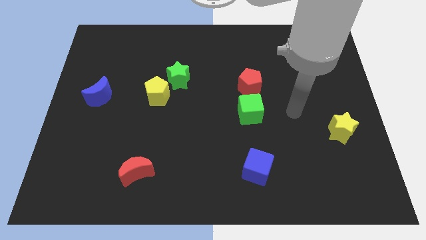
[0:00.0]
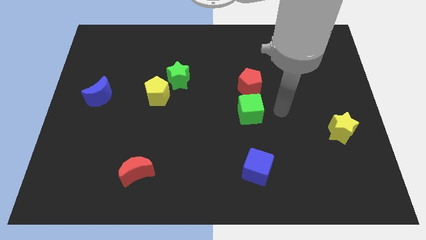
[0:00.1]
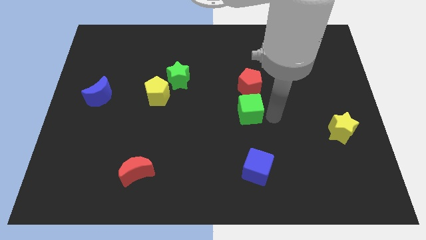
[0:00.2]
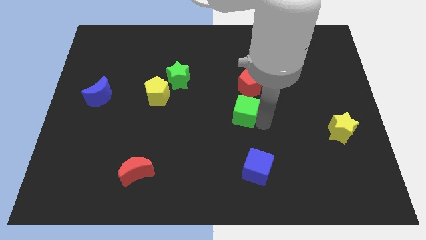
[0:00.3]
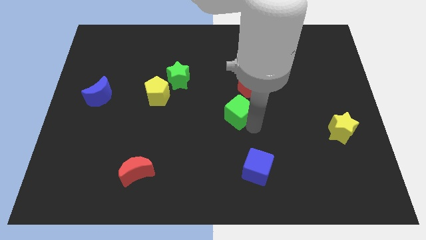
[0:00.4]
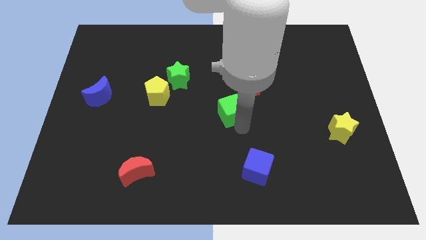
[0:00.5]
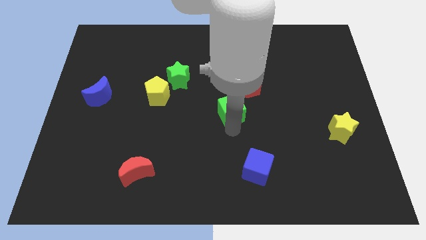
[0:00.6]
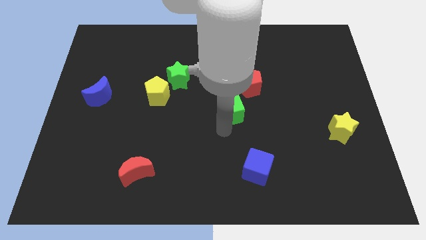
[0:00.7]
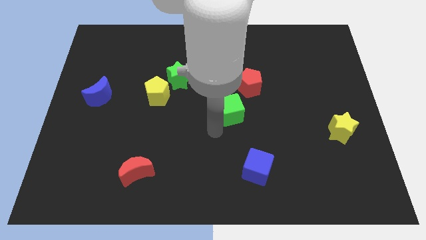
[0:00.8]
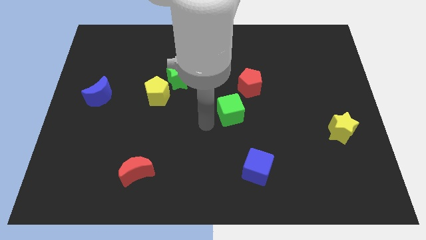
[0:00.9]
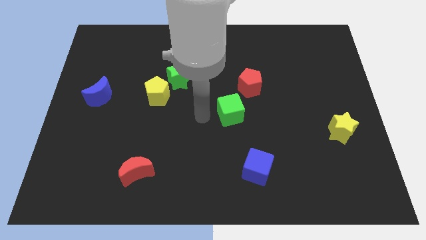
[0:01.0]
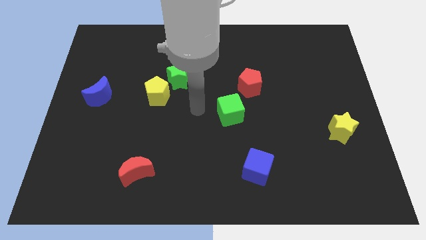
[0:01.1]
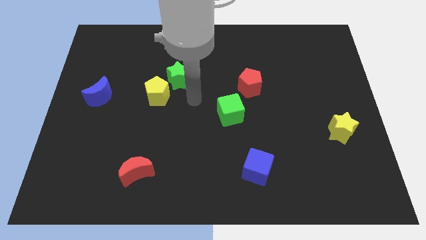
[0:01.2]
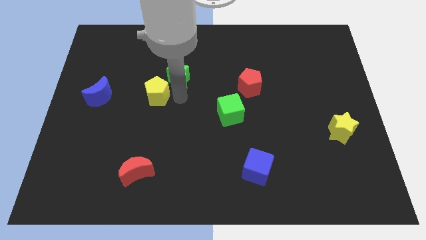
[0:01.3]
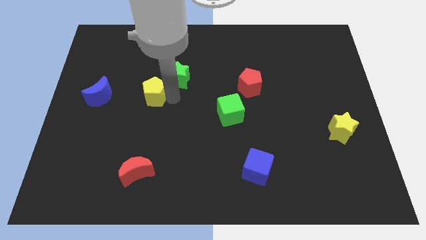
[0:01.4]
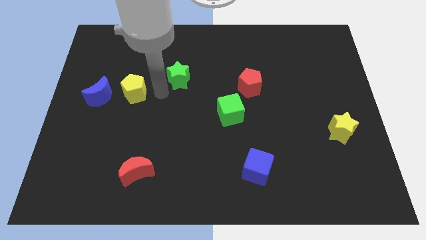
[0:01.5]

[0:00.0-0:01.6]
move the green star away from the yellow pentagon

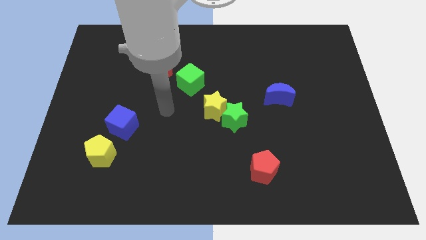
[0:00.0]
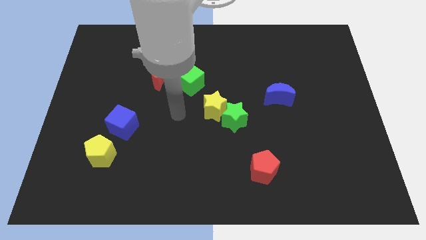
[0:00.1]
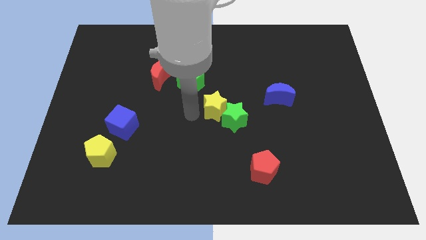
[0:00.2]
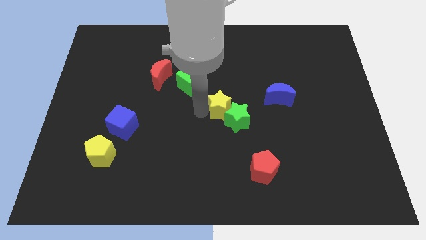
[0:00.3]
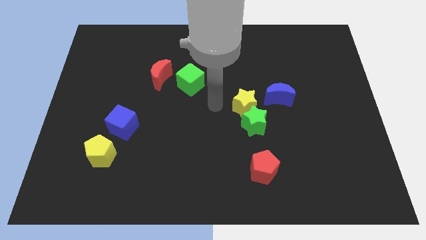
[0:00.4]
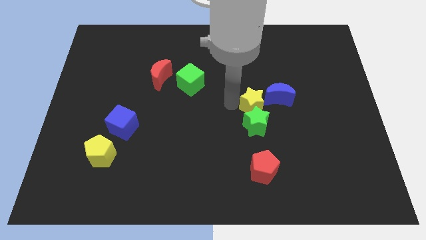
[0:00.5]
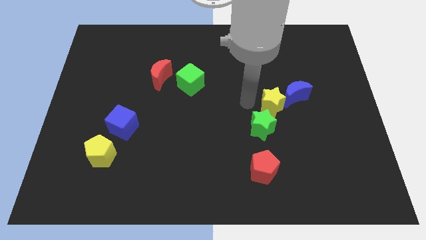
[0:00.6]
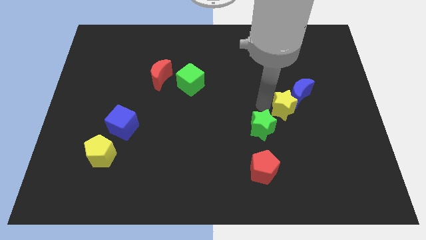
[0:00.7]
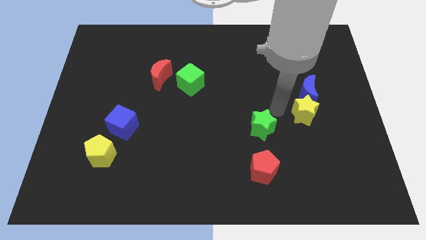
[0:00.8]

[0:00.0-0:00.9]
pull the green star apart from the yellow star

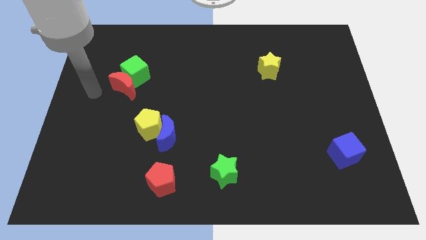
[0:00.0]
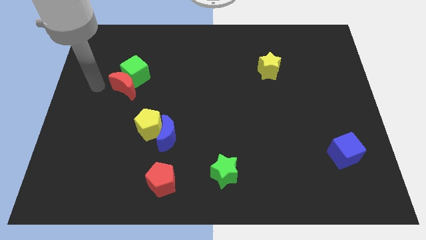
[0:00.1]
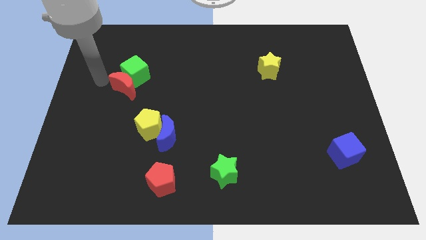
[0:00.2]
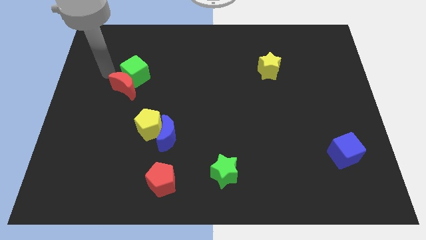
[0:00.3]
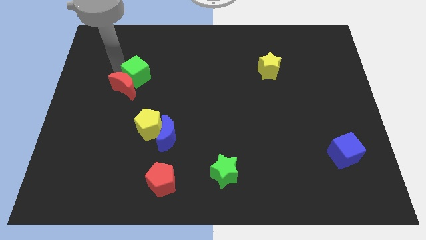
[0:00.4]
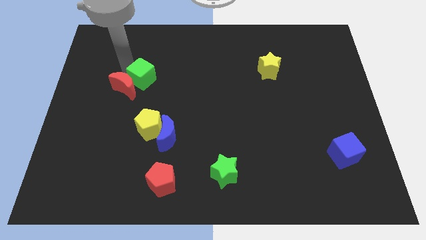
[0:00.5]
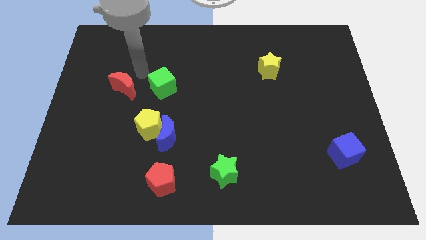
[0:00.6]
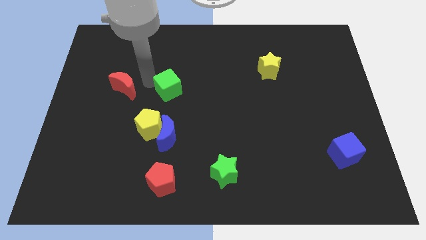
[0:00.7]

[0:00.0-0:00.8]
move the red moon away from the green cube

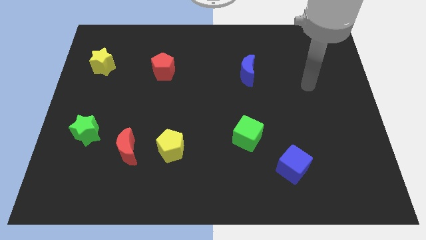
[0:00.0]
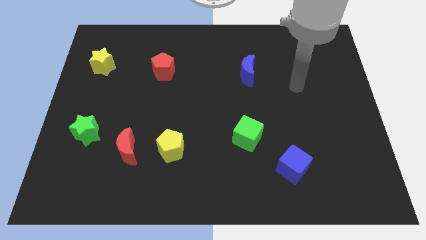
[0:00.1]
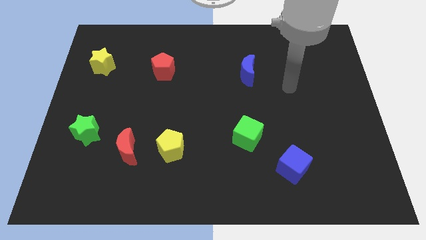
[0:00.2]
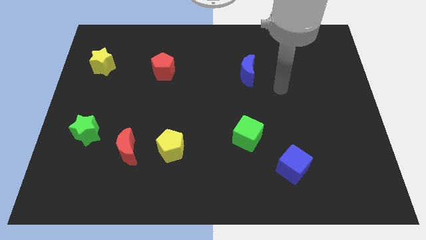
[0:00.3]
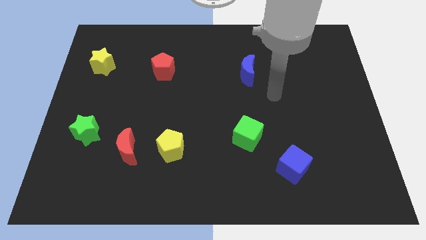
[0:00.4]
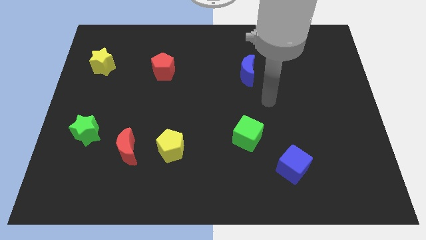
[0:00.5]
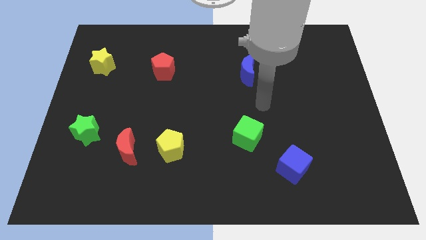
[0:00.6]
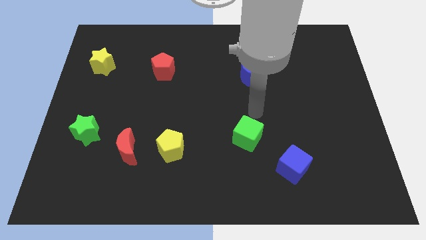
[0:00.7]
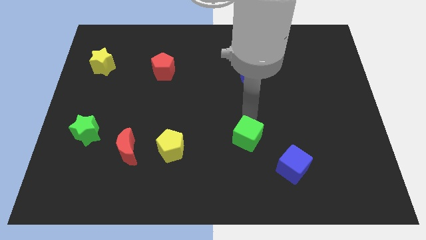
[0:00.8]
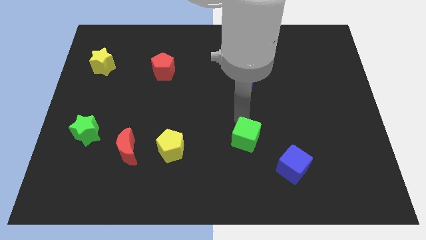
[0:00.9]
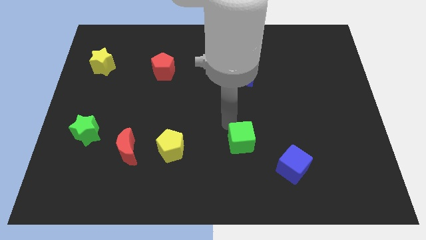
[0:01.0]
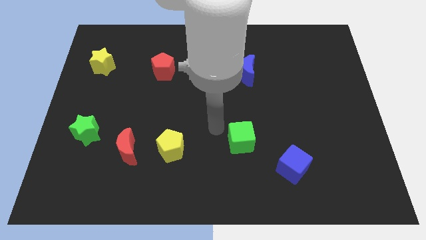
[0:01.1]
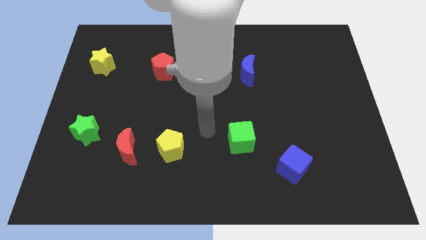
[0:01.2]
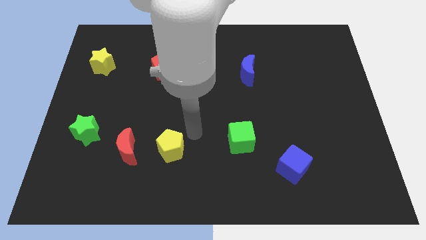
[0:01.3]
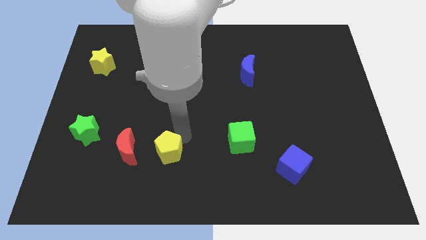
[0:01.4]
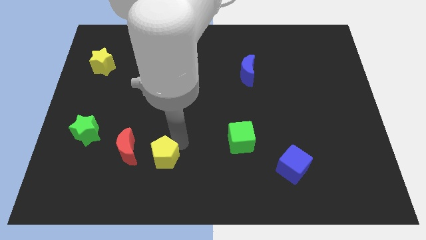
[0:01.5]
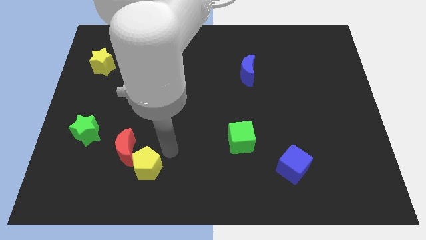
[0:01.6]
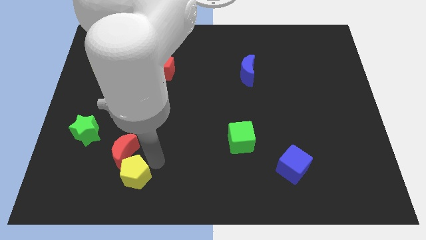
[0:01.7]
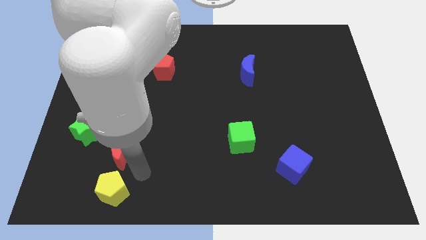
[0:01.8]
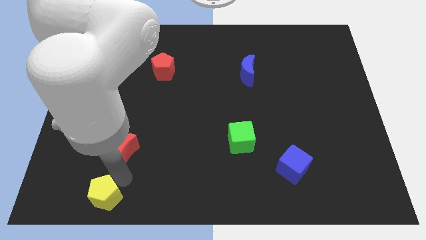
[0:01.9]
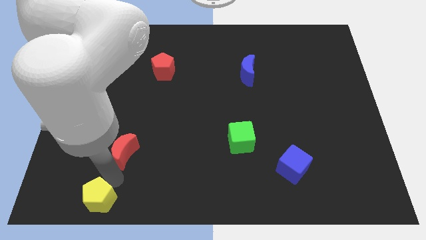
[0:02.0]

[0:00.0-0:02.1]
move the red moon away from the yellow pentagon

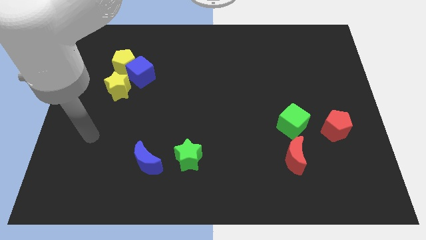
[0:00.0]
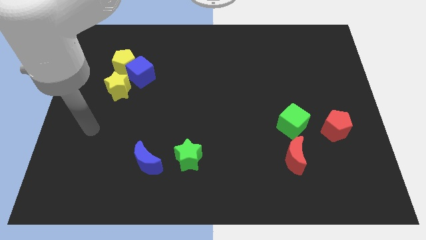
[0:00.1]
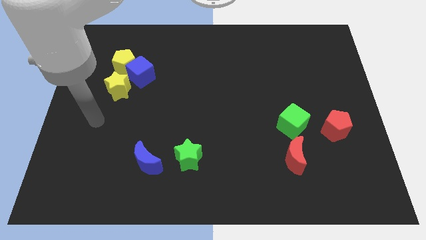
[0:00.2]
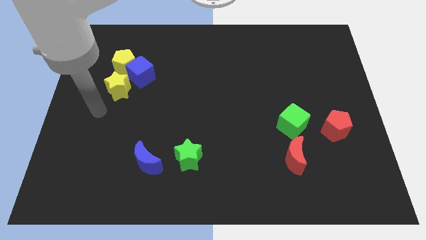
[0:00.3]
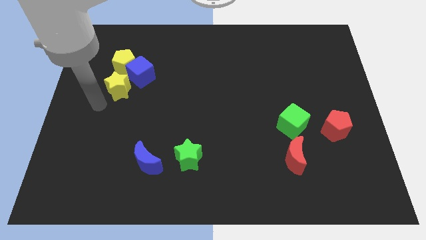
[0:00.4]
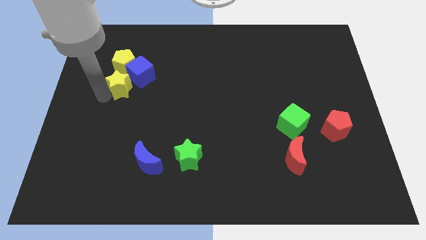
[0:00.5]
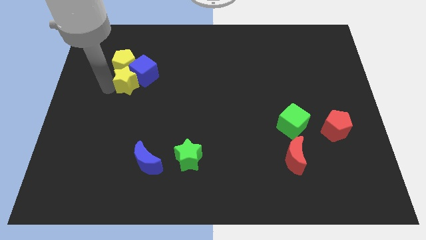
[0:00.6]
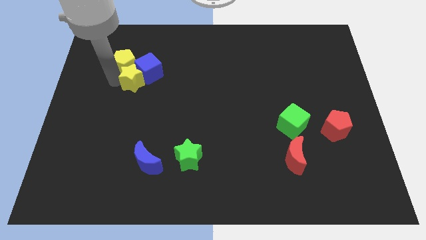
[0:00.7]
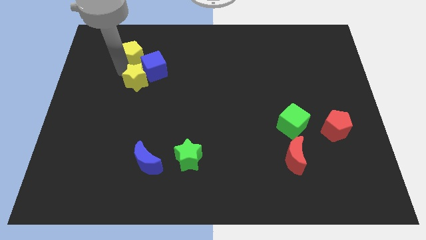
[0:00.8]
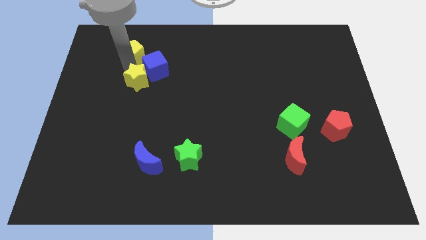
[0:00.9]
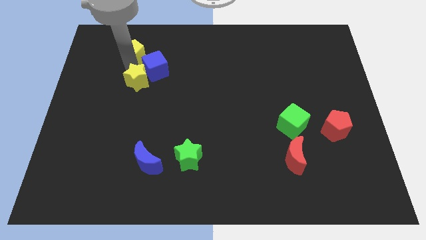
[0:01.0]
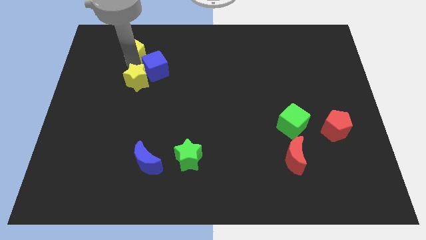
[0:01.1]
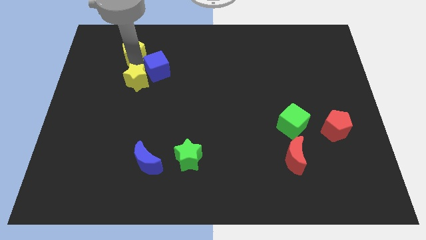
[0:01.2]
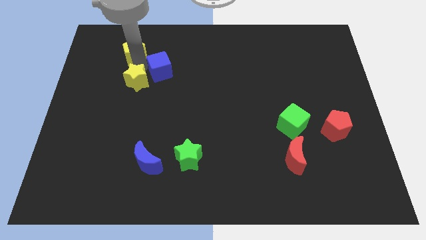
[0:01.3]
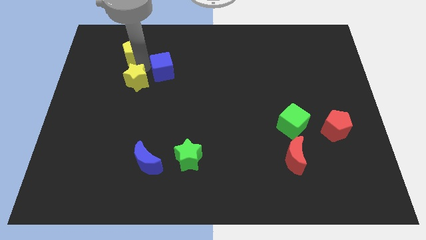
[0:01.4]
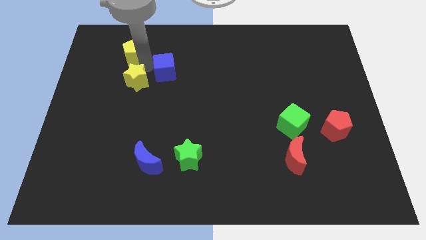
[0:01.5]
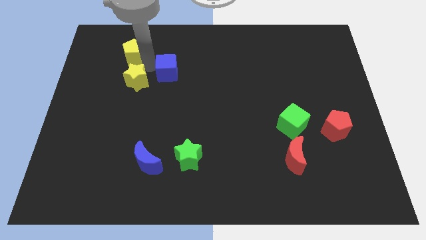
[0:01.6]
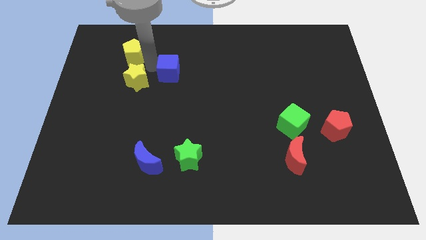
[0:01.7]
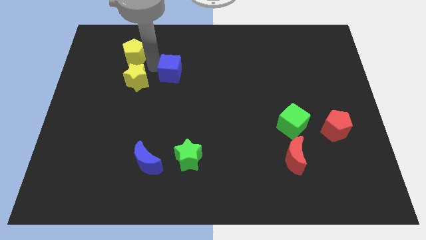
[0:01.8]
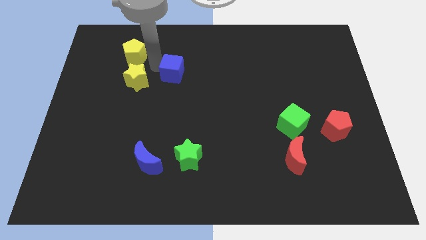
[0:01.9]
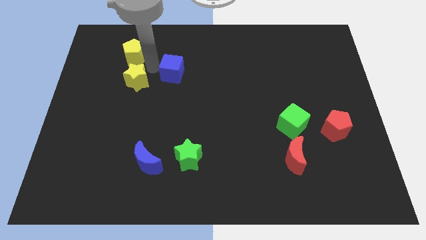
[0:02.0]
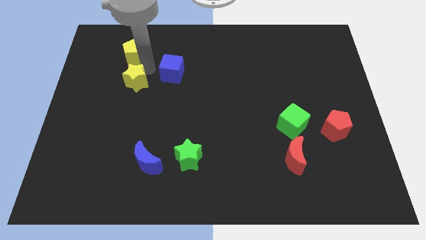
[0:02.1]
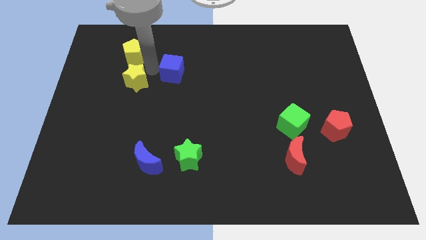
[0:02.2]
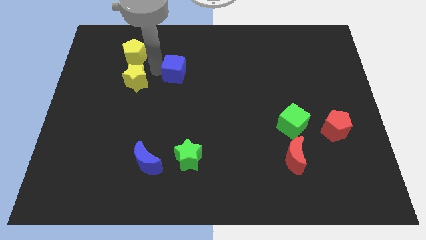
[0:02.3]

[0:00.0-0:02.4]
move the blue cube away from the yellow pentagon and yellow star

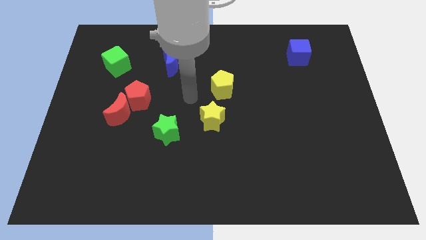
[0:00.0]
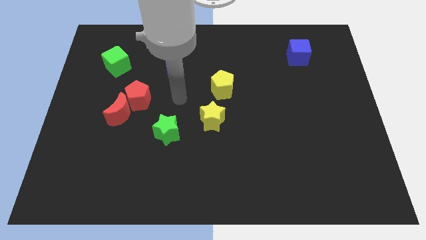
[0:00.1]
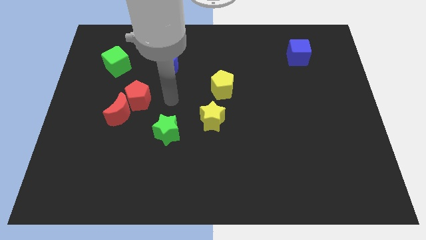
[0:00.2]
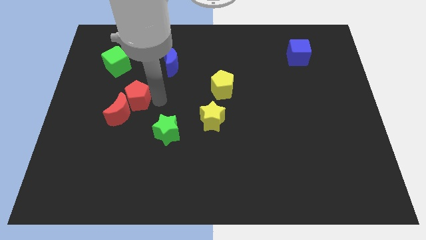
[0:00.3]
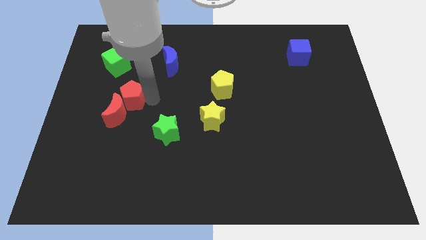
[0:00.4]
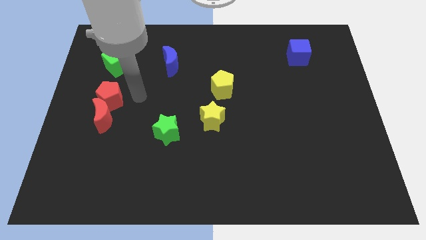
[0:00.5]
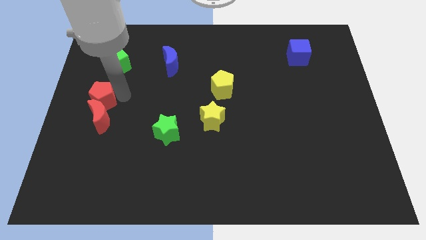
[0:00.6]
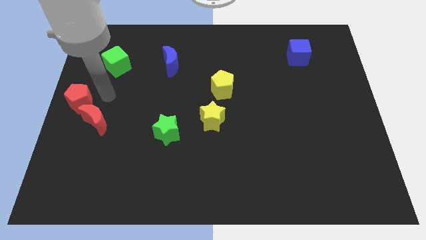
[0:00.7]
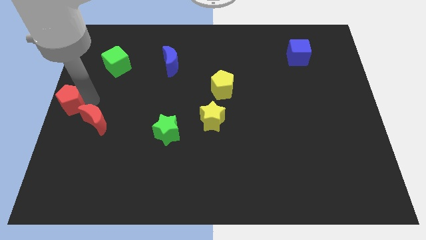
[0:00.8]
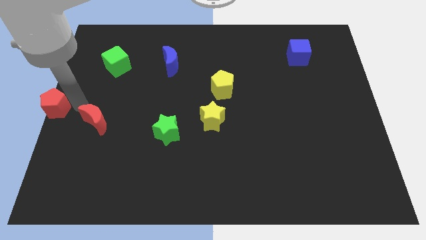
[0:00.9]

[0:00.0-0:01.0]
move the red moon away from the red pentagon

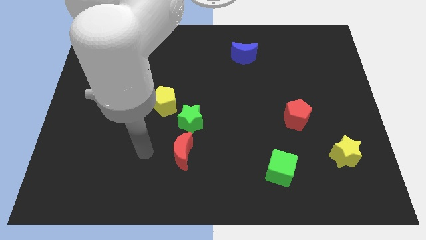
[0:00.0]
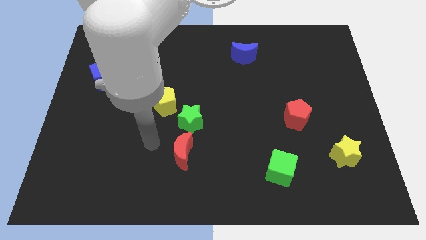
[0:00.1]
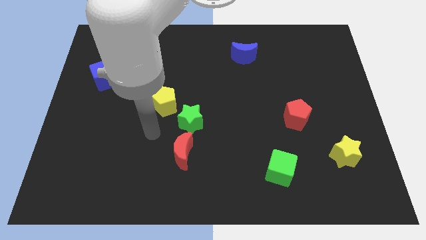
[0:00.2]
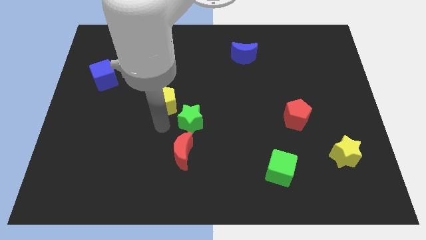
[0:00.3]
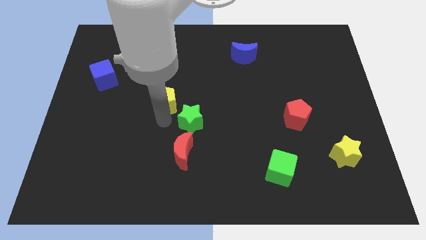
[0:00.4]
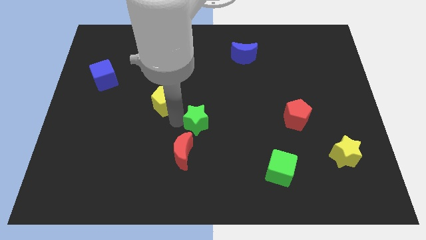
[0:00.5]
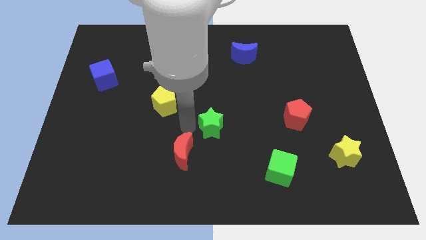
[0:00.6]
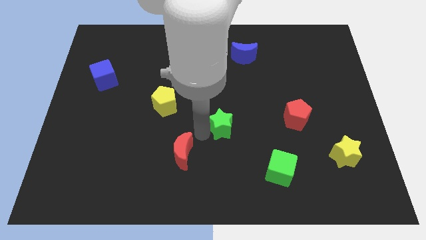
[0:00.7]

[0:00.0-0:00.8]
move the red moon away from the green star
